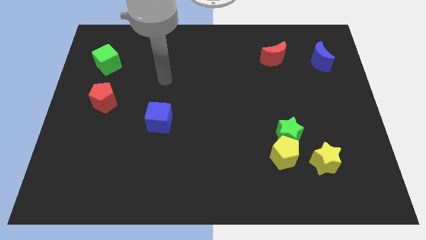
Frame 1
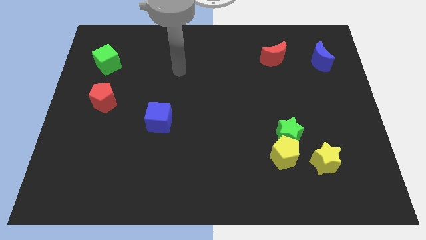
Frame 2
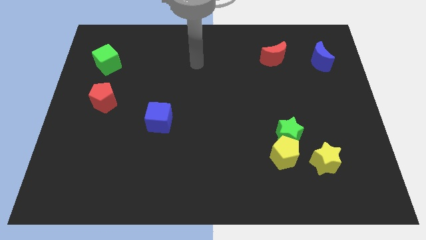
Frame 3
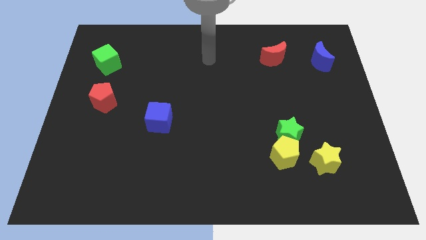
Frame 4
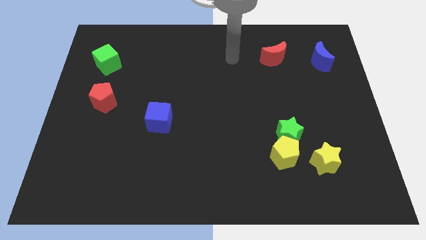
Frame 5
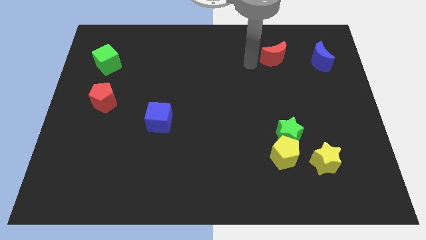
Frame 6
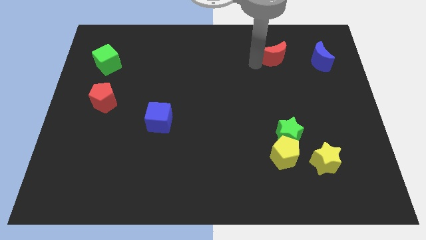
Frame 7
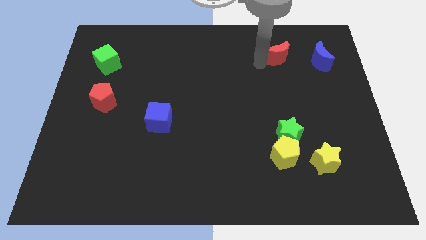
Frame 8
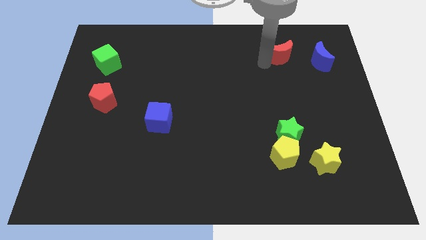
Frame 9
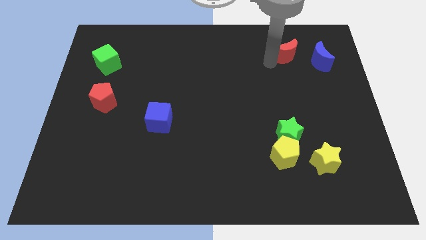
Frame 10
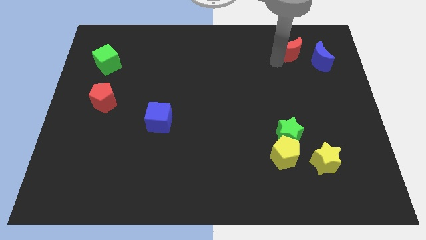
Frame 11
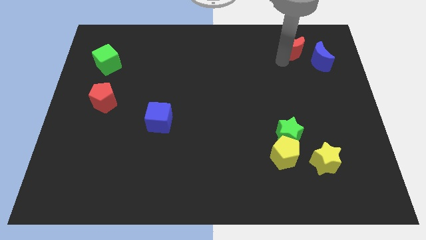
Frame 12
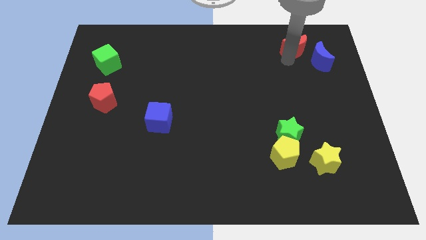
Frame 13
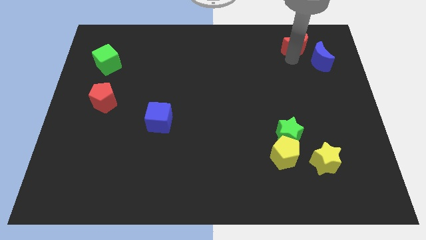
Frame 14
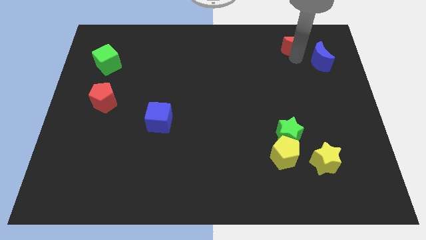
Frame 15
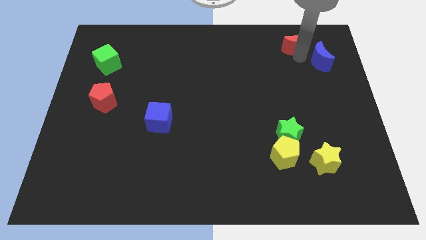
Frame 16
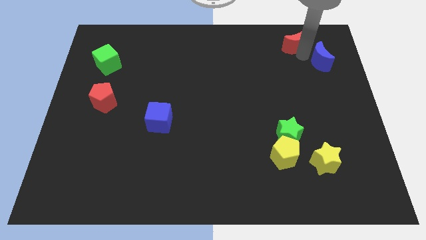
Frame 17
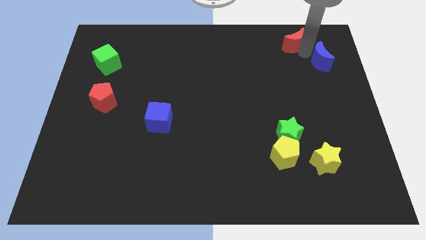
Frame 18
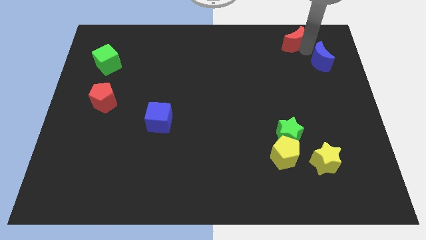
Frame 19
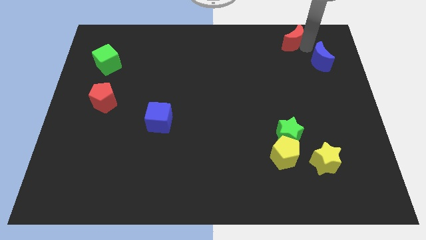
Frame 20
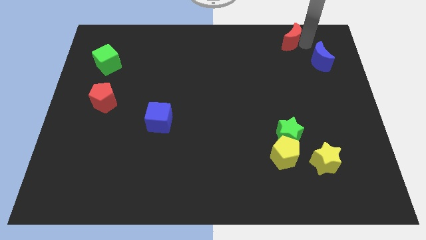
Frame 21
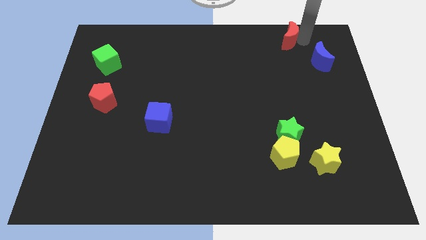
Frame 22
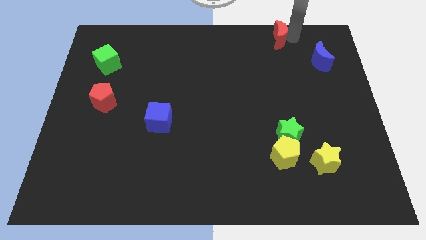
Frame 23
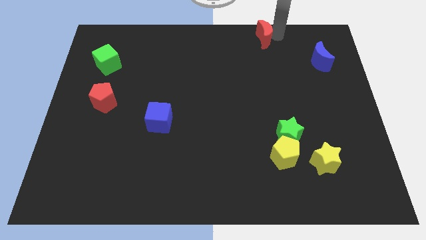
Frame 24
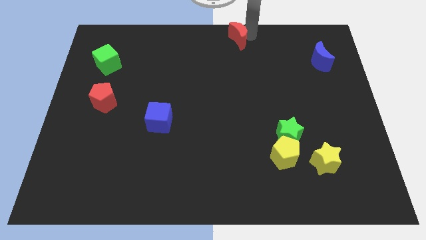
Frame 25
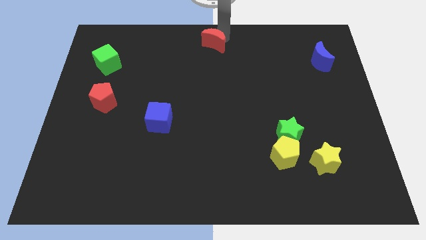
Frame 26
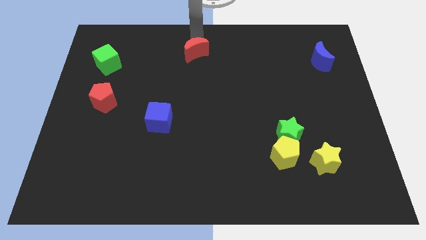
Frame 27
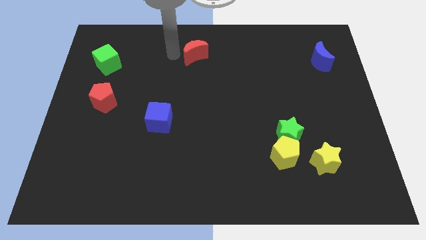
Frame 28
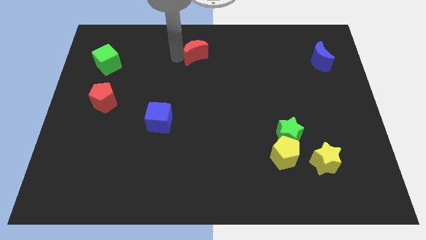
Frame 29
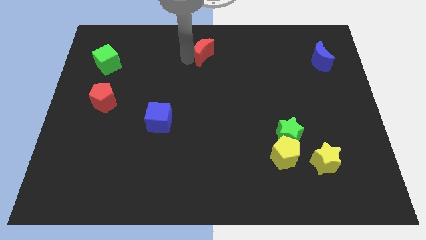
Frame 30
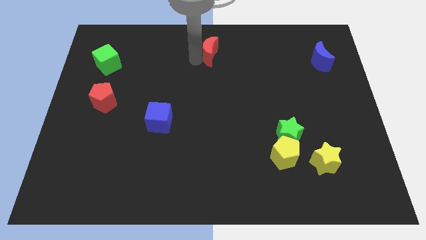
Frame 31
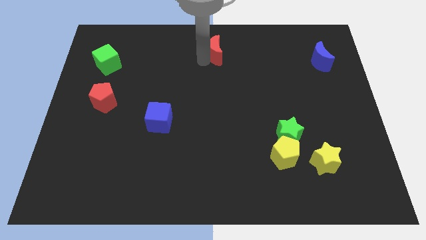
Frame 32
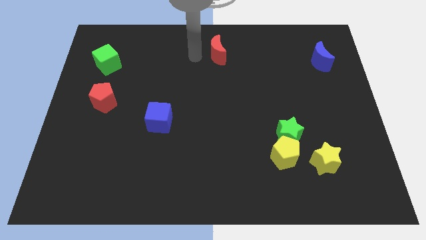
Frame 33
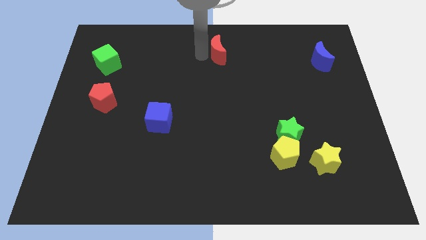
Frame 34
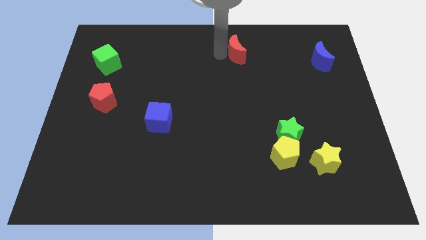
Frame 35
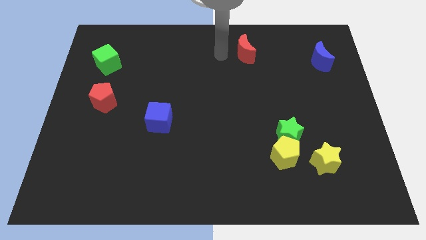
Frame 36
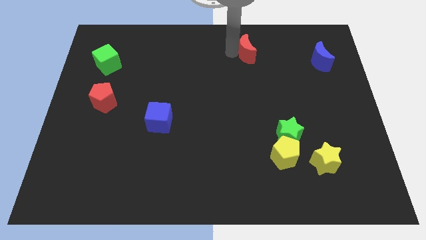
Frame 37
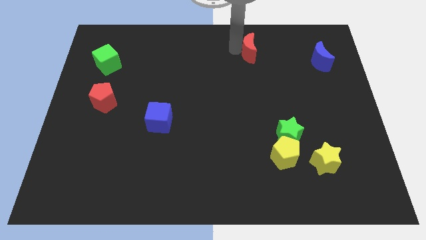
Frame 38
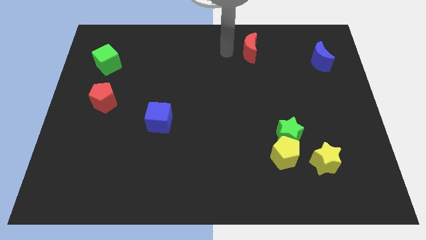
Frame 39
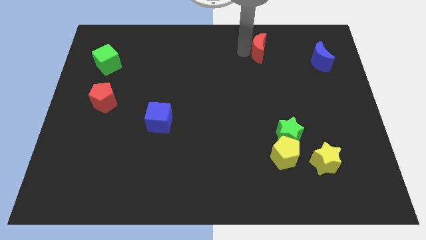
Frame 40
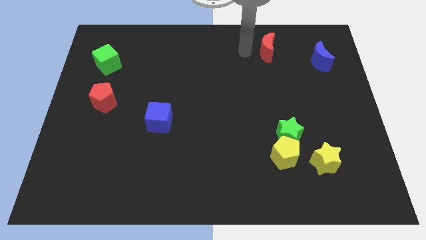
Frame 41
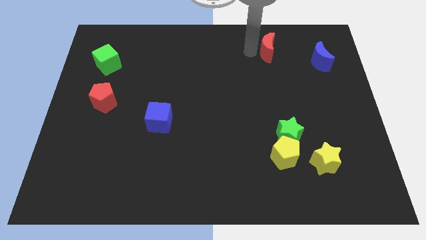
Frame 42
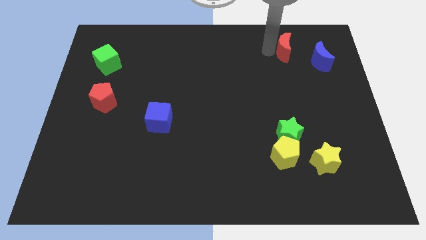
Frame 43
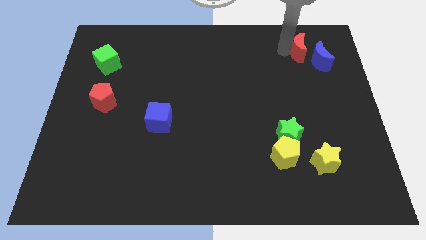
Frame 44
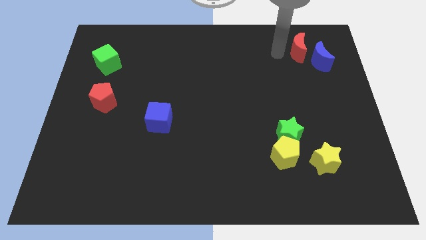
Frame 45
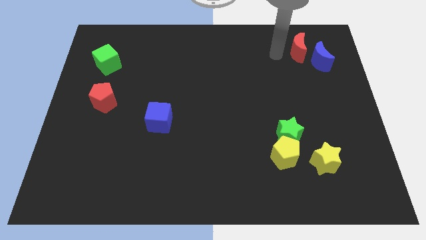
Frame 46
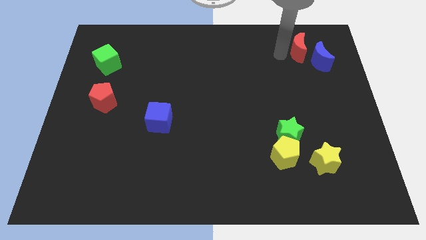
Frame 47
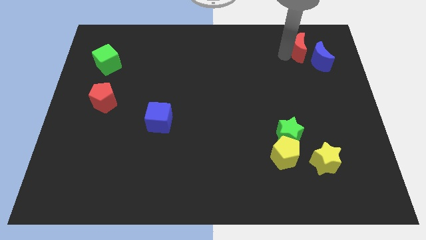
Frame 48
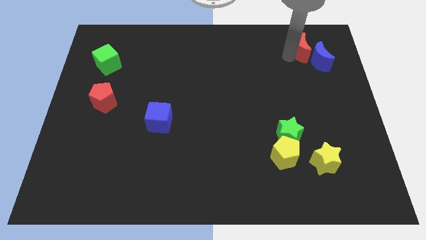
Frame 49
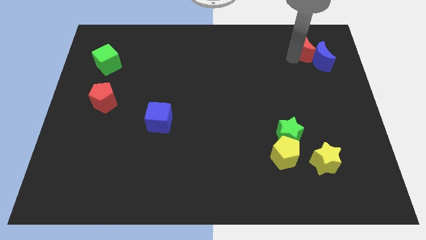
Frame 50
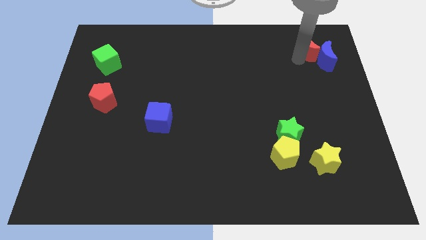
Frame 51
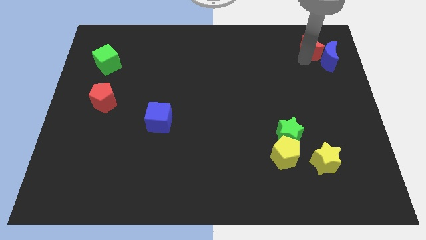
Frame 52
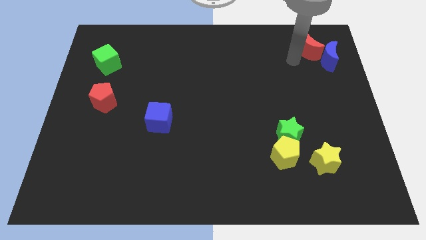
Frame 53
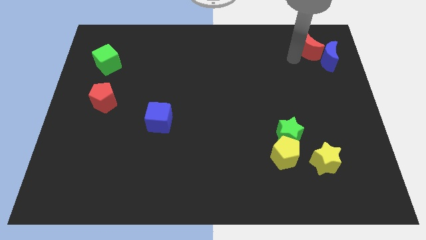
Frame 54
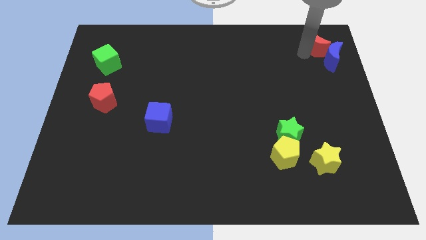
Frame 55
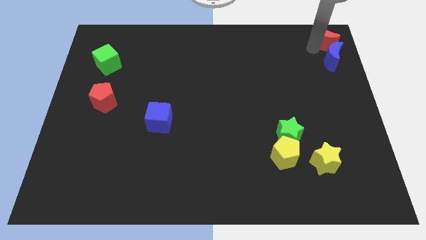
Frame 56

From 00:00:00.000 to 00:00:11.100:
push the red moon to the upper right corner

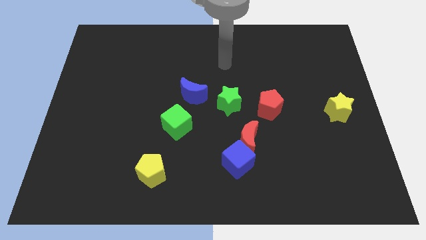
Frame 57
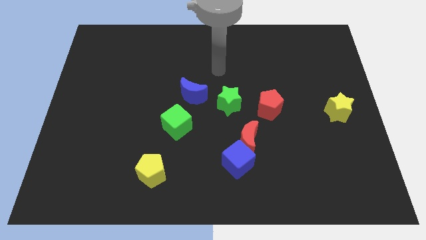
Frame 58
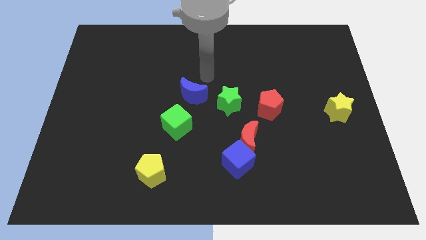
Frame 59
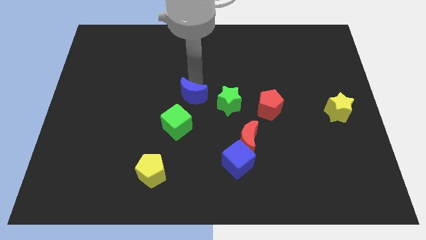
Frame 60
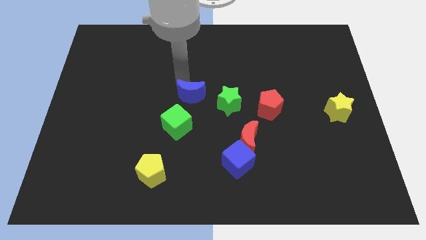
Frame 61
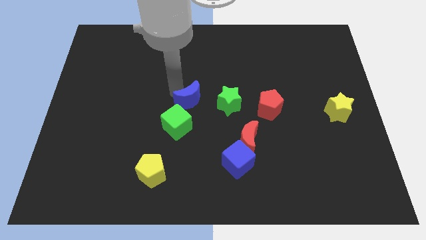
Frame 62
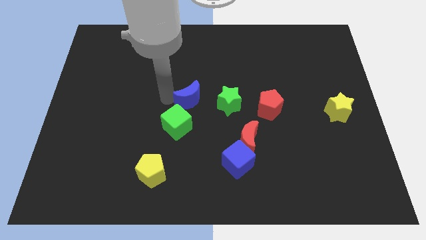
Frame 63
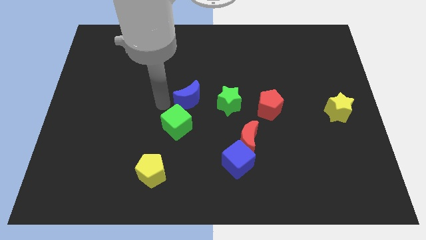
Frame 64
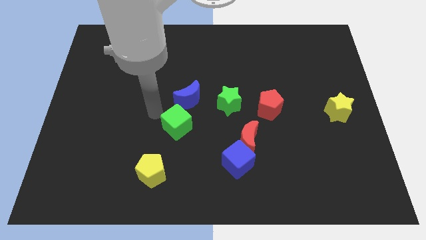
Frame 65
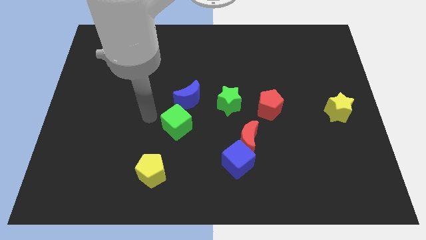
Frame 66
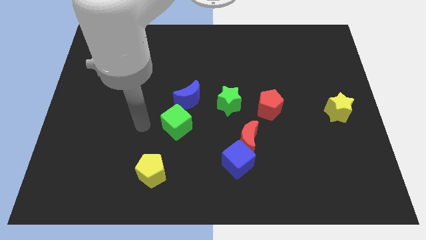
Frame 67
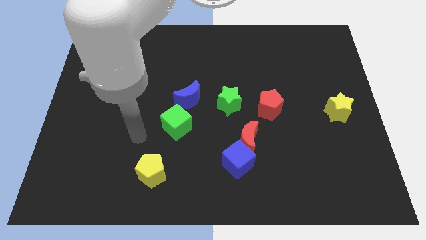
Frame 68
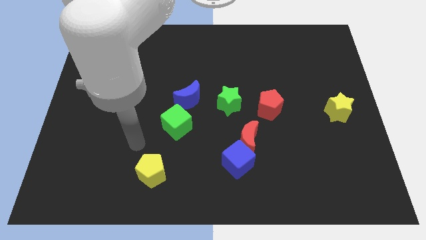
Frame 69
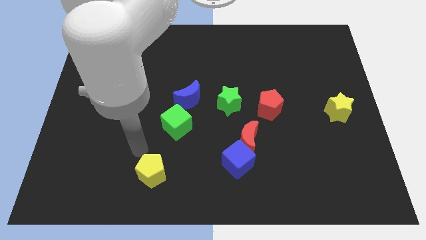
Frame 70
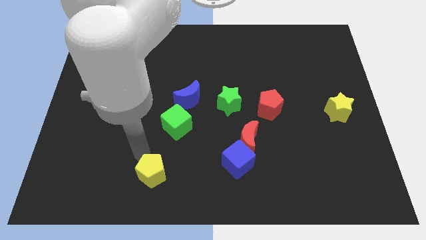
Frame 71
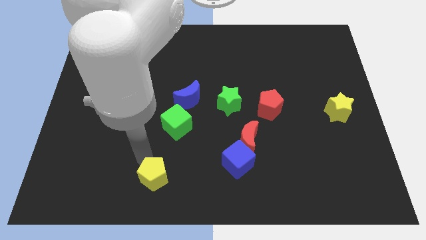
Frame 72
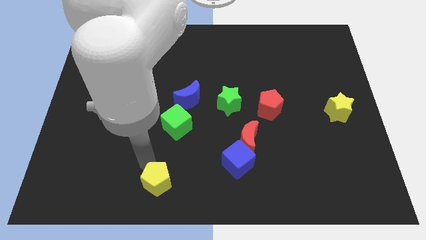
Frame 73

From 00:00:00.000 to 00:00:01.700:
put the yellow pentagon to the bottom side
